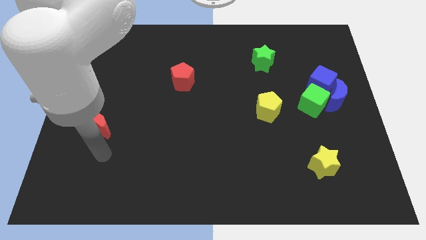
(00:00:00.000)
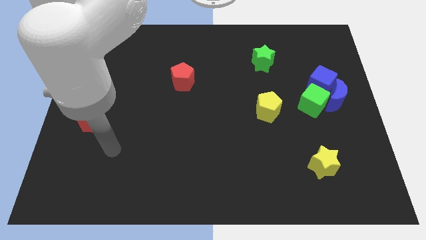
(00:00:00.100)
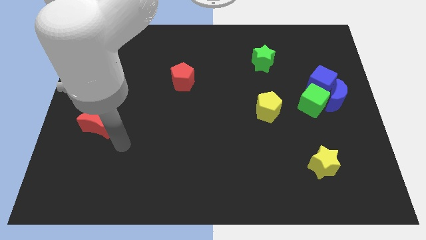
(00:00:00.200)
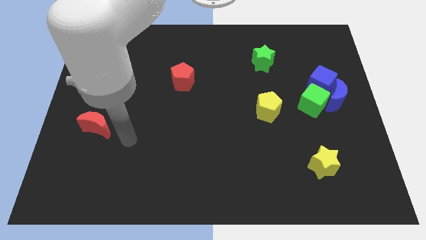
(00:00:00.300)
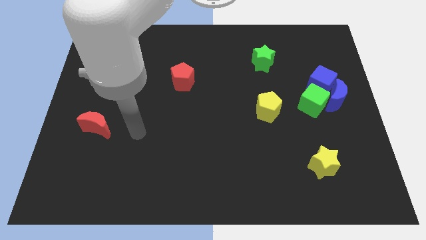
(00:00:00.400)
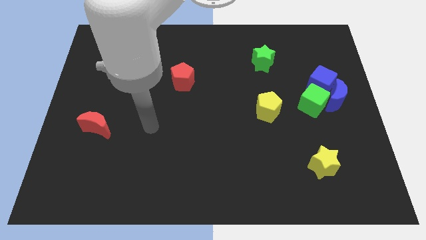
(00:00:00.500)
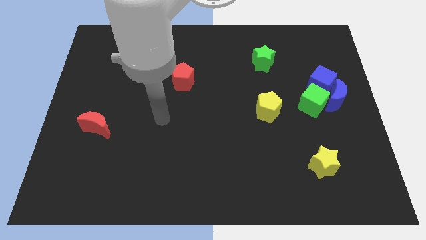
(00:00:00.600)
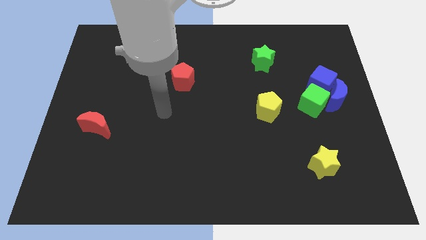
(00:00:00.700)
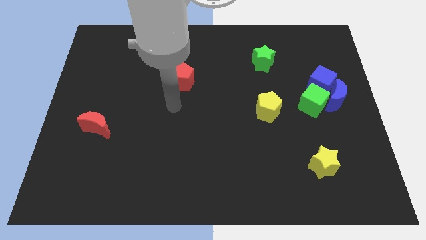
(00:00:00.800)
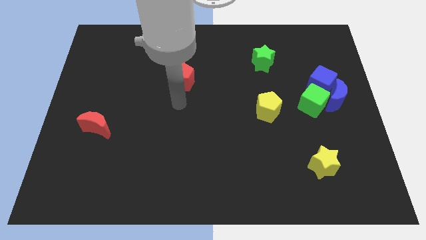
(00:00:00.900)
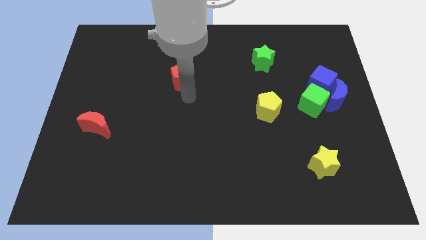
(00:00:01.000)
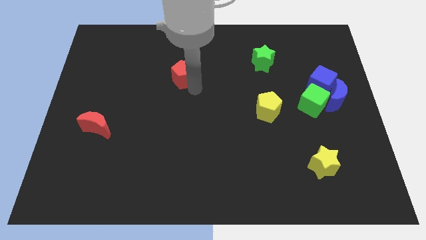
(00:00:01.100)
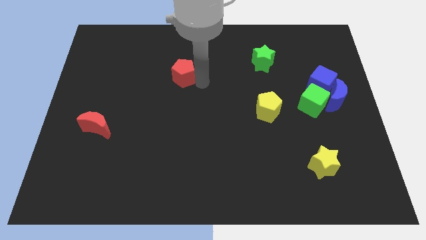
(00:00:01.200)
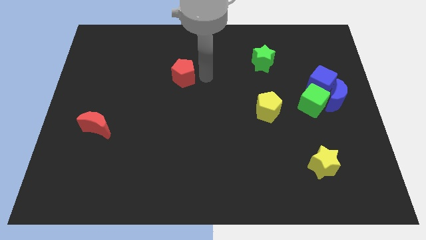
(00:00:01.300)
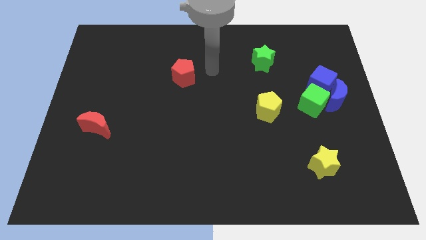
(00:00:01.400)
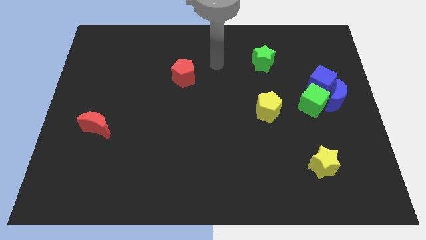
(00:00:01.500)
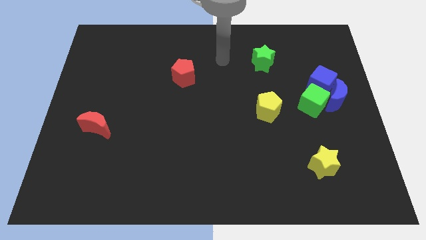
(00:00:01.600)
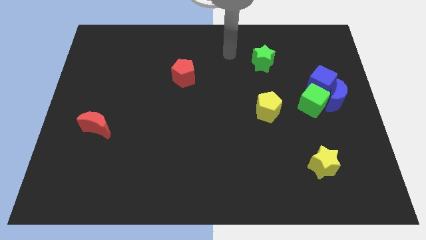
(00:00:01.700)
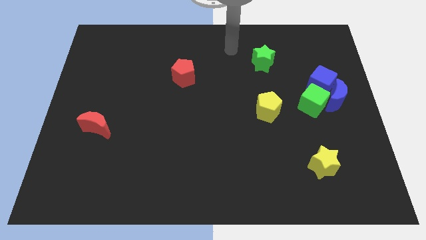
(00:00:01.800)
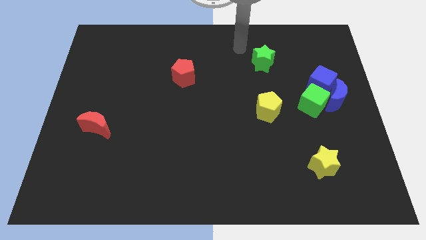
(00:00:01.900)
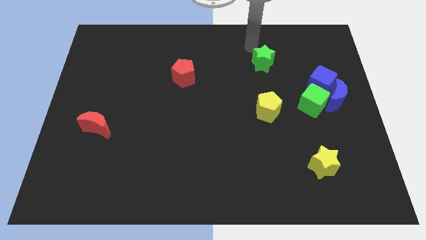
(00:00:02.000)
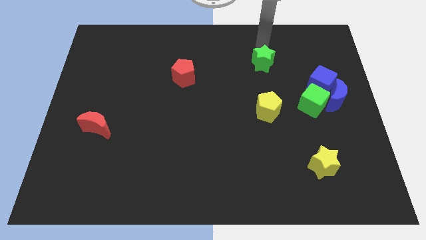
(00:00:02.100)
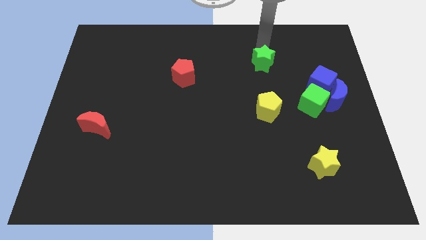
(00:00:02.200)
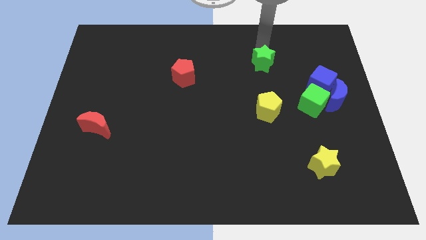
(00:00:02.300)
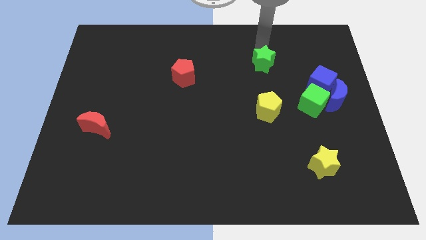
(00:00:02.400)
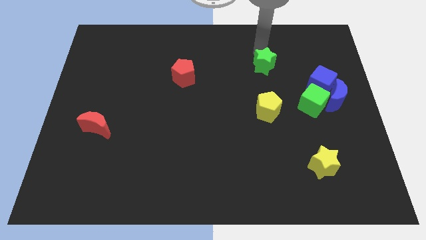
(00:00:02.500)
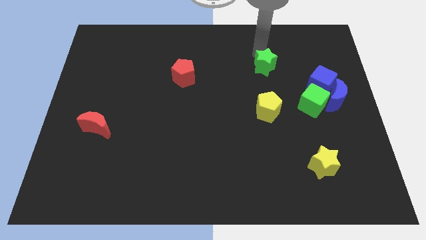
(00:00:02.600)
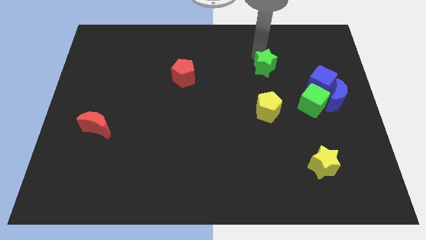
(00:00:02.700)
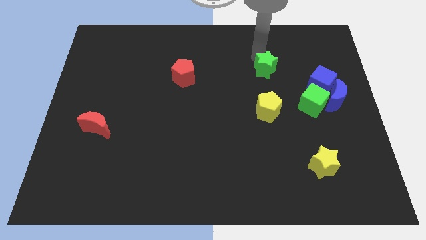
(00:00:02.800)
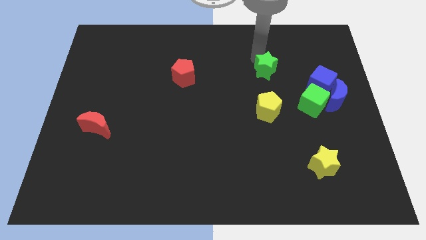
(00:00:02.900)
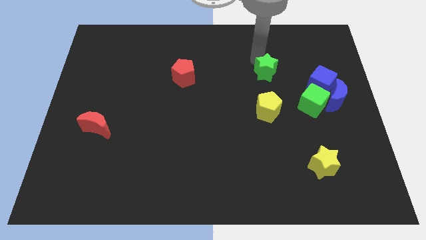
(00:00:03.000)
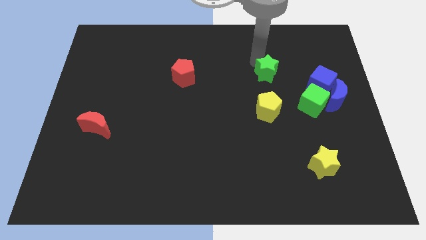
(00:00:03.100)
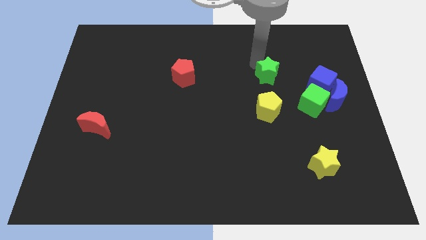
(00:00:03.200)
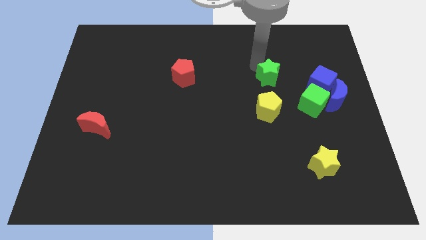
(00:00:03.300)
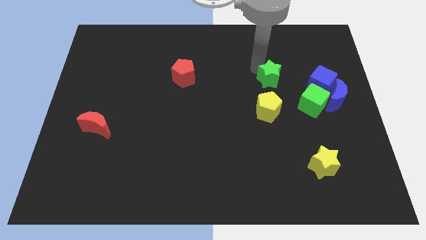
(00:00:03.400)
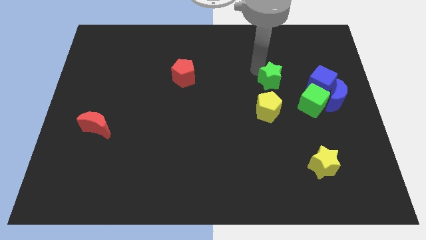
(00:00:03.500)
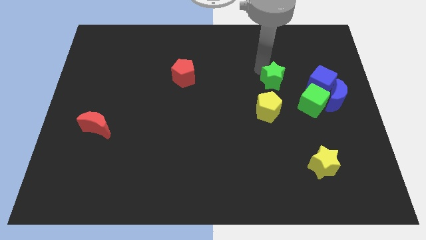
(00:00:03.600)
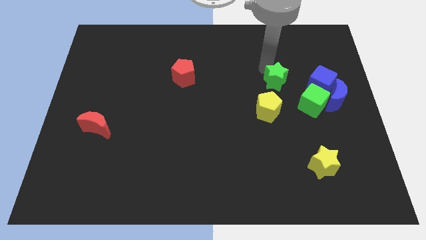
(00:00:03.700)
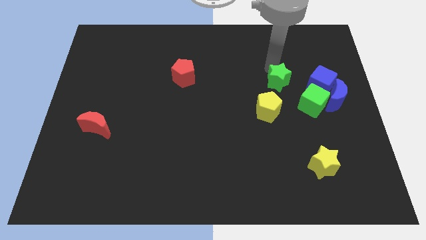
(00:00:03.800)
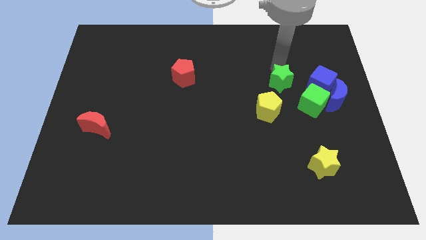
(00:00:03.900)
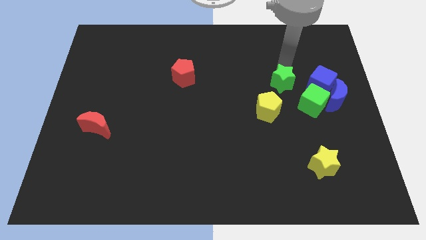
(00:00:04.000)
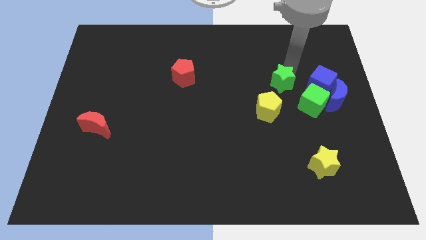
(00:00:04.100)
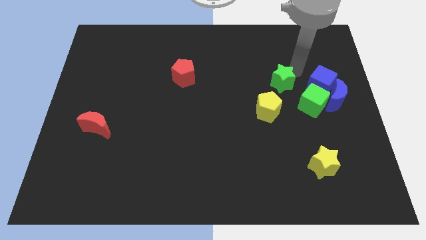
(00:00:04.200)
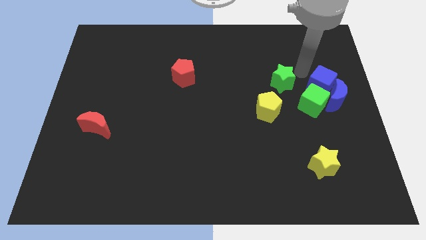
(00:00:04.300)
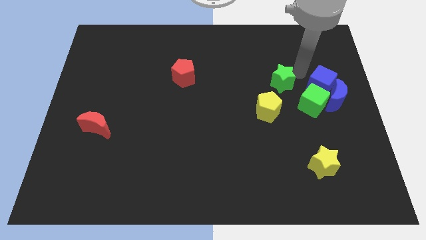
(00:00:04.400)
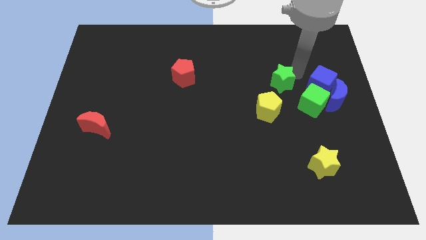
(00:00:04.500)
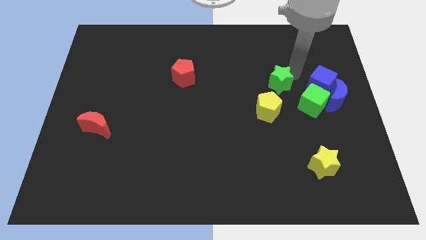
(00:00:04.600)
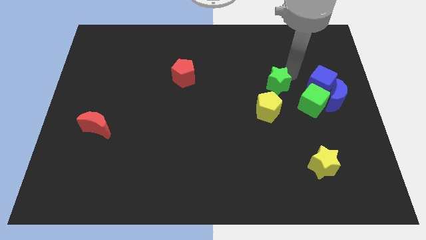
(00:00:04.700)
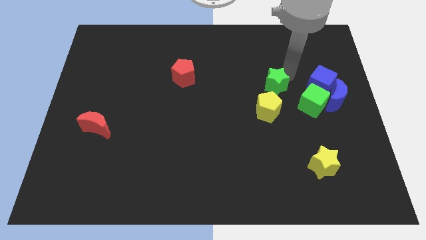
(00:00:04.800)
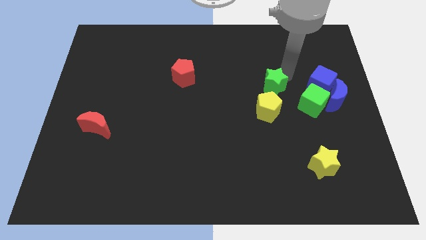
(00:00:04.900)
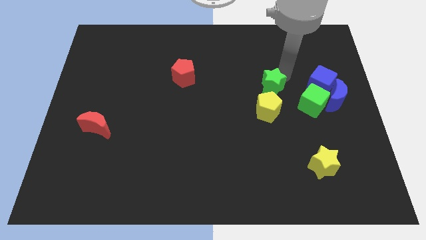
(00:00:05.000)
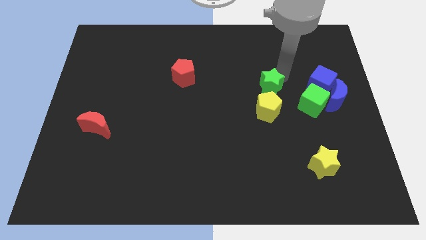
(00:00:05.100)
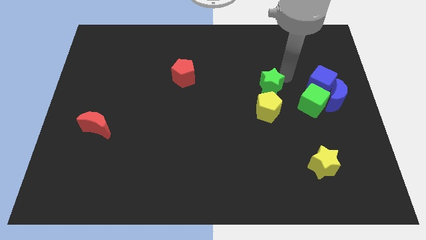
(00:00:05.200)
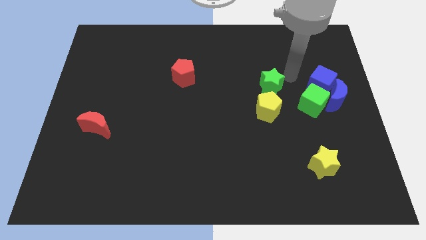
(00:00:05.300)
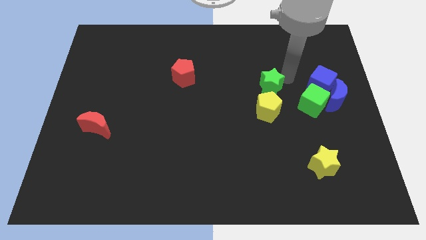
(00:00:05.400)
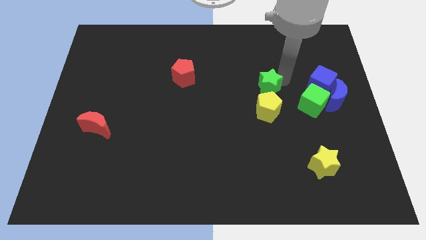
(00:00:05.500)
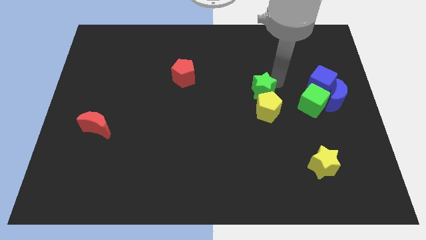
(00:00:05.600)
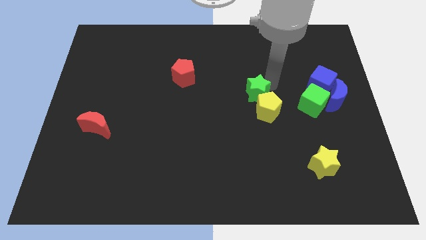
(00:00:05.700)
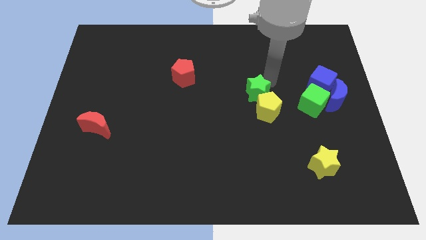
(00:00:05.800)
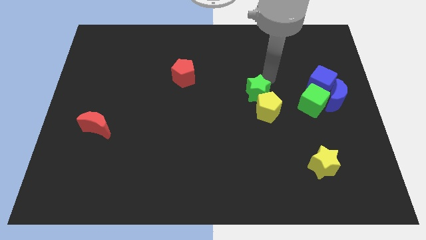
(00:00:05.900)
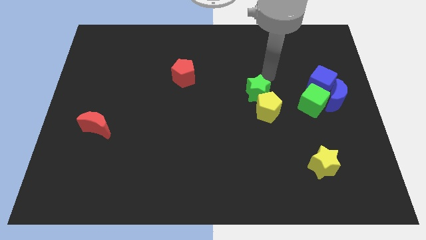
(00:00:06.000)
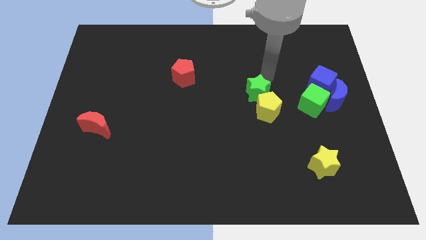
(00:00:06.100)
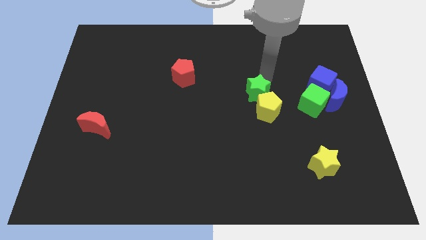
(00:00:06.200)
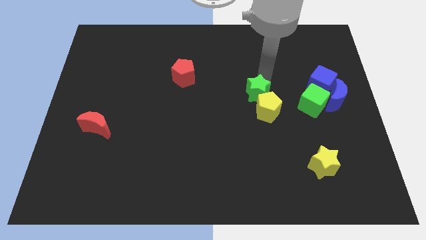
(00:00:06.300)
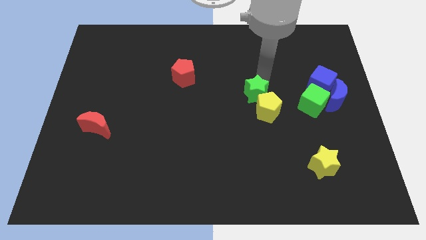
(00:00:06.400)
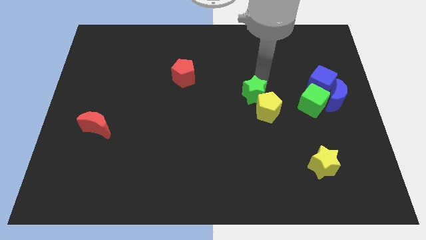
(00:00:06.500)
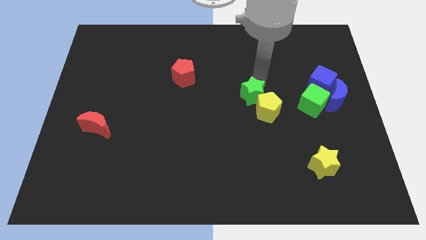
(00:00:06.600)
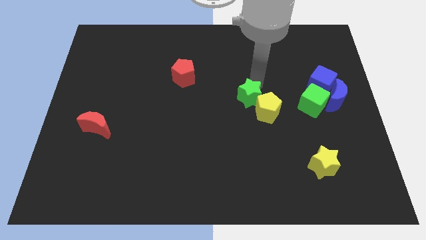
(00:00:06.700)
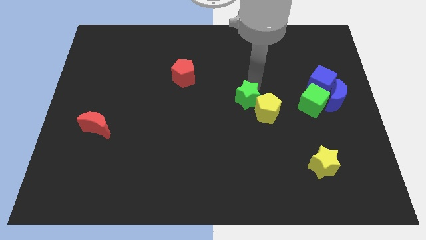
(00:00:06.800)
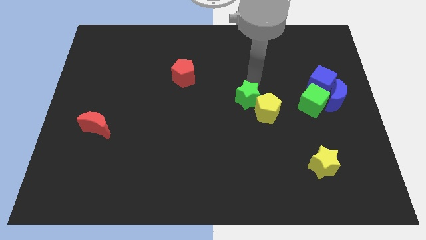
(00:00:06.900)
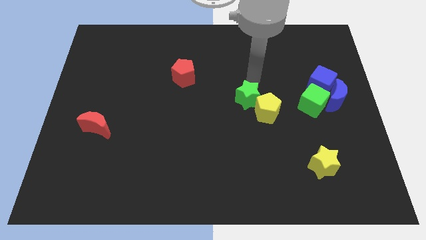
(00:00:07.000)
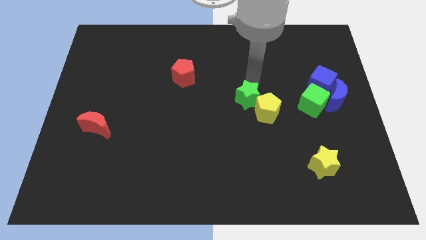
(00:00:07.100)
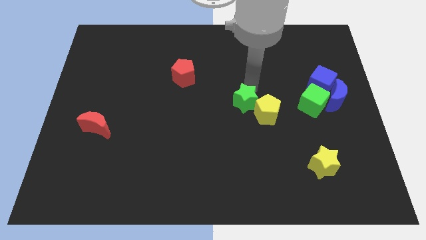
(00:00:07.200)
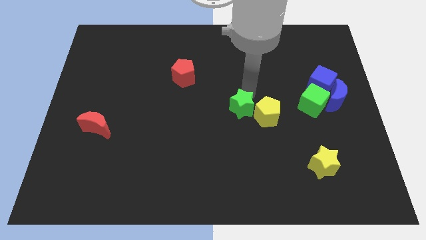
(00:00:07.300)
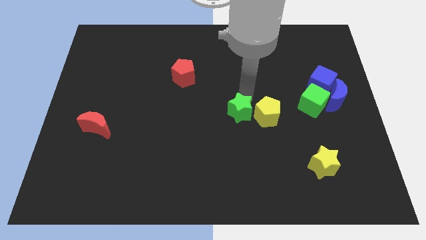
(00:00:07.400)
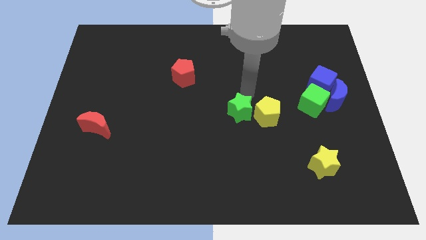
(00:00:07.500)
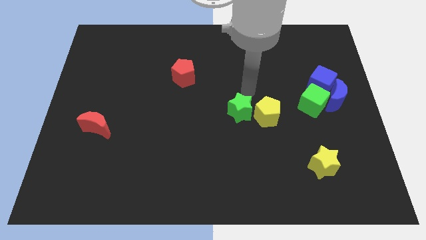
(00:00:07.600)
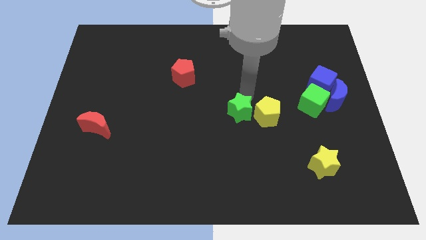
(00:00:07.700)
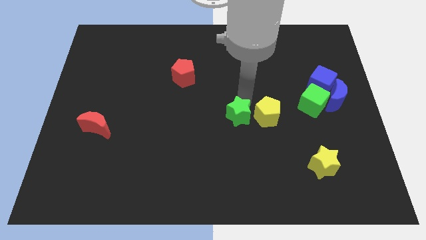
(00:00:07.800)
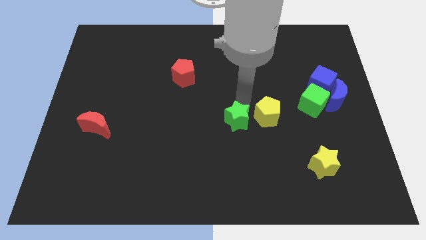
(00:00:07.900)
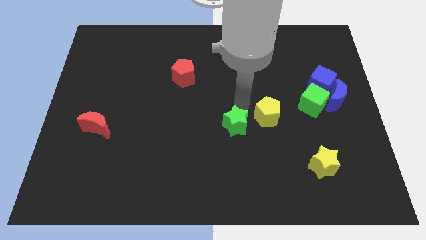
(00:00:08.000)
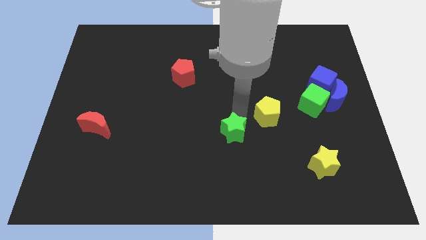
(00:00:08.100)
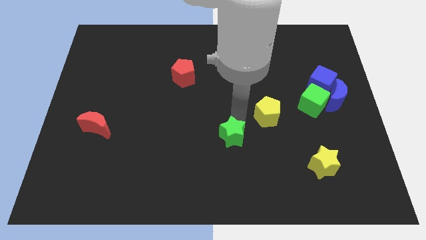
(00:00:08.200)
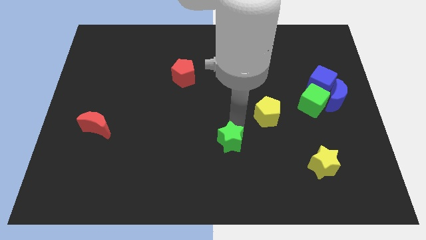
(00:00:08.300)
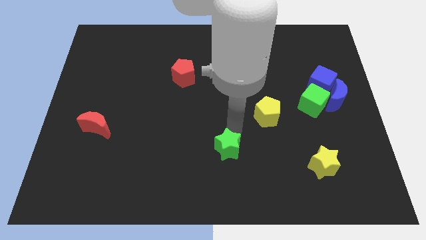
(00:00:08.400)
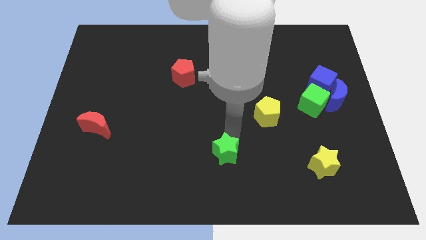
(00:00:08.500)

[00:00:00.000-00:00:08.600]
push the green star to the bottom side
